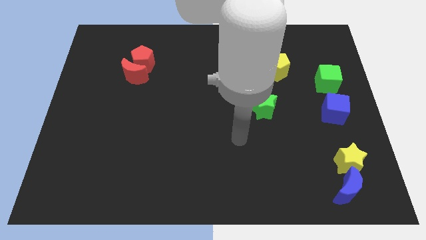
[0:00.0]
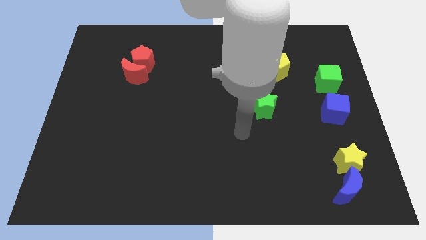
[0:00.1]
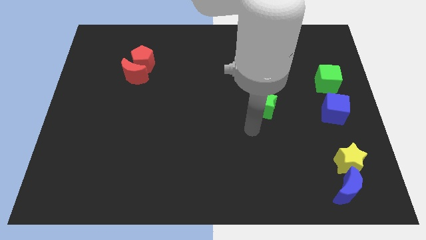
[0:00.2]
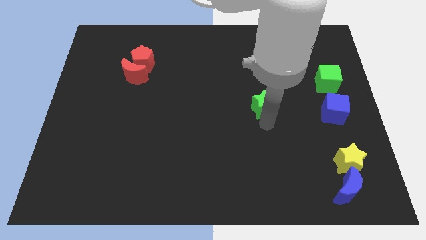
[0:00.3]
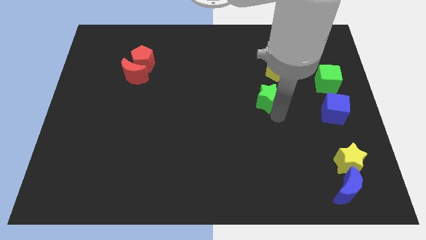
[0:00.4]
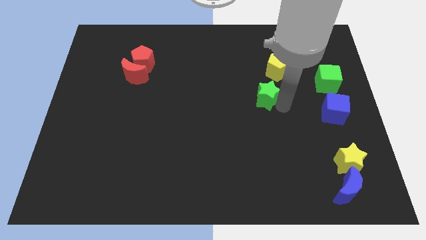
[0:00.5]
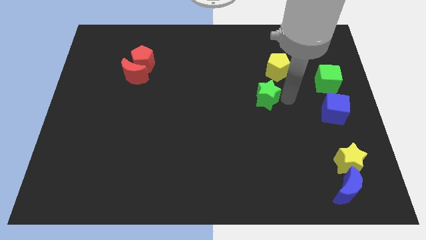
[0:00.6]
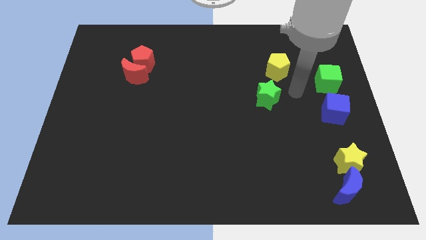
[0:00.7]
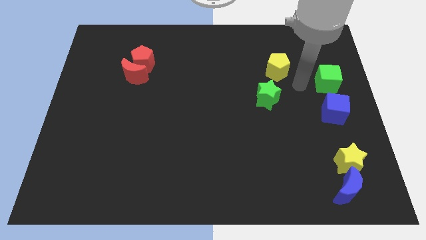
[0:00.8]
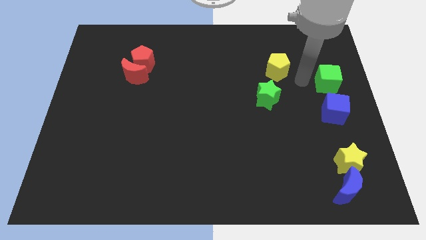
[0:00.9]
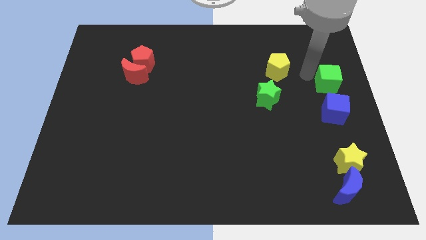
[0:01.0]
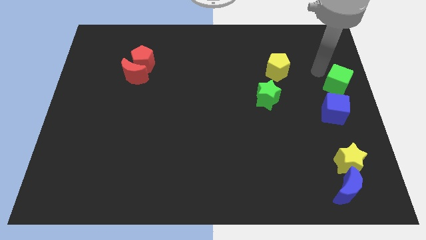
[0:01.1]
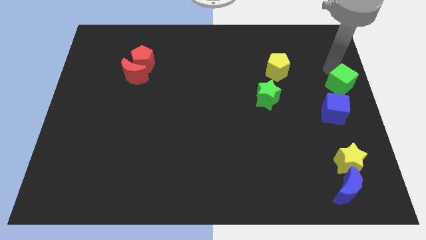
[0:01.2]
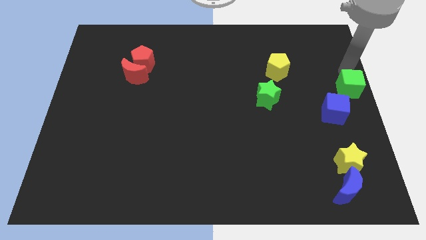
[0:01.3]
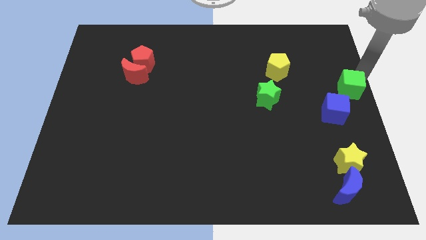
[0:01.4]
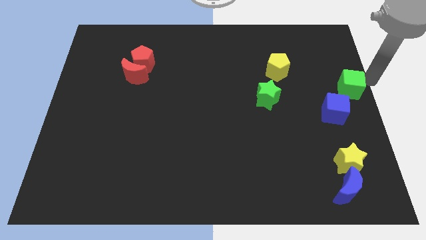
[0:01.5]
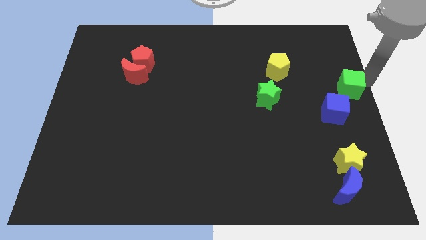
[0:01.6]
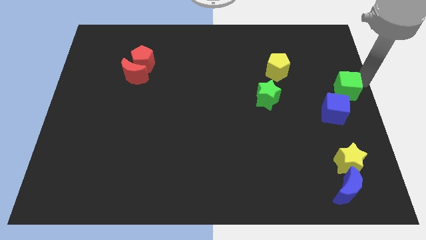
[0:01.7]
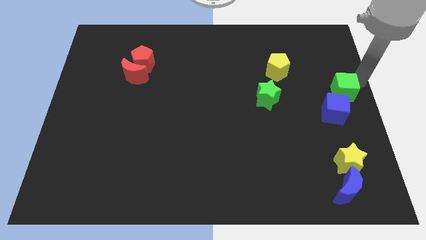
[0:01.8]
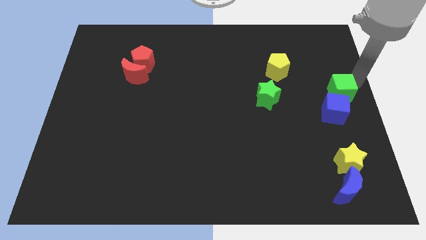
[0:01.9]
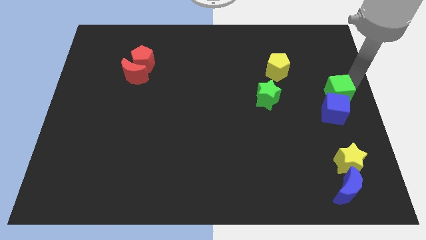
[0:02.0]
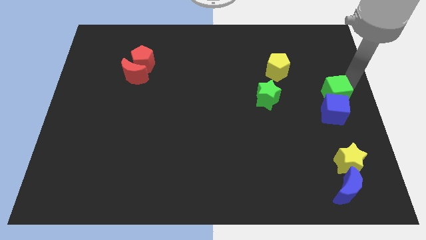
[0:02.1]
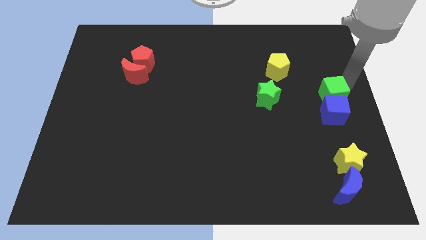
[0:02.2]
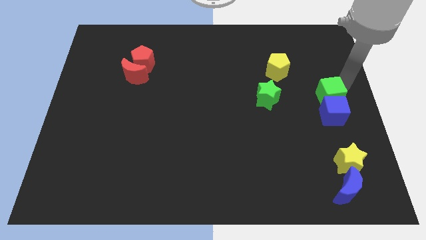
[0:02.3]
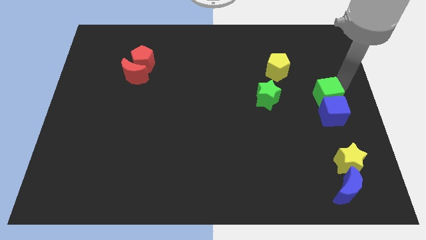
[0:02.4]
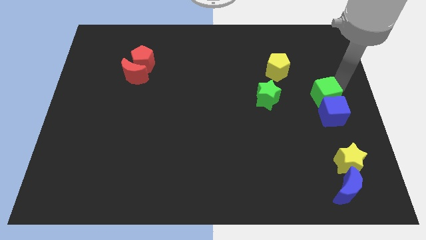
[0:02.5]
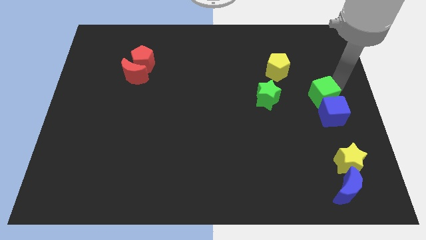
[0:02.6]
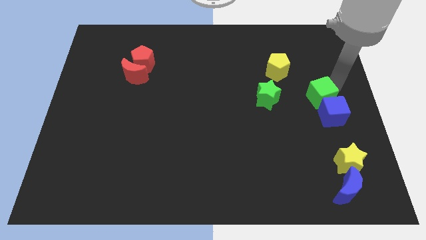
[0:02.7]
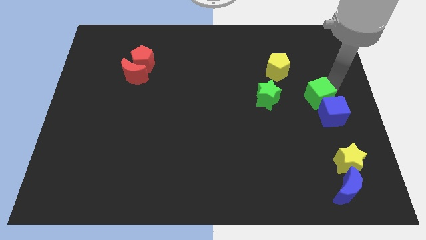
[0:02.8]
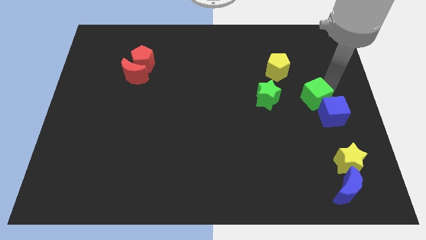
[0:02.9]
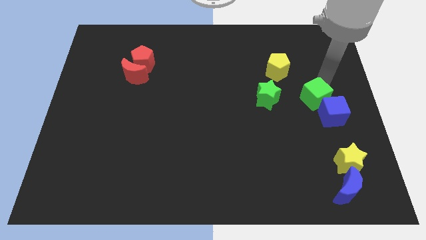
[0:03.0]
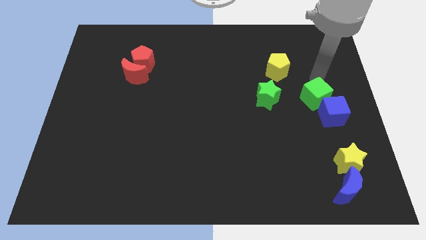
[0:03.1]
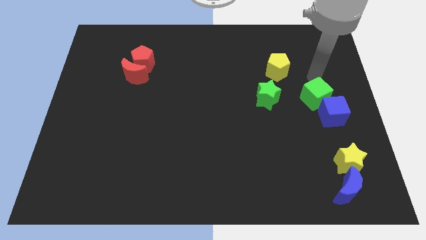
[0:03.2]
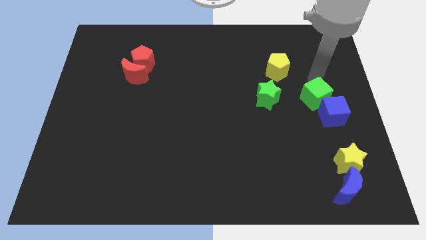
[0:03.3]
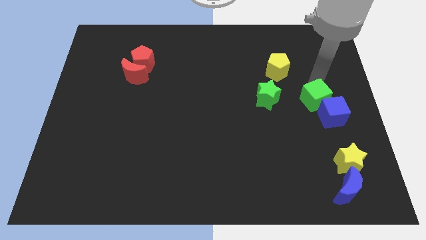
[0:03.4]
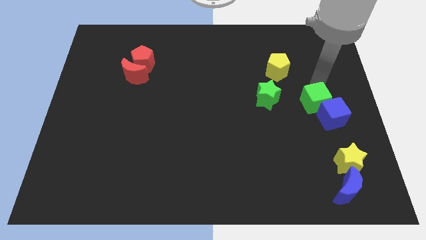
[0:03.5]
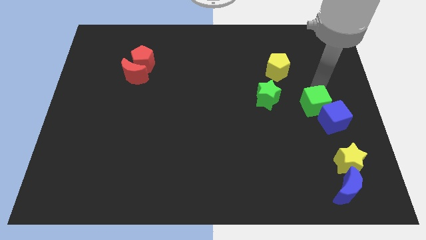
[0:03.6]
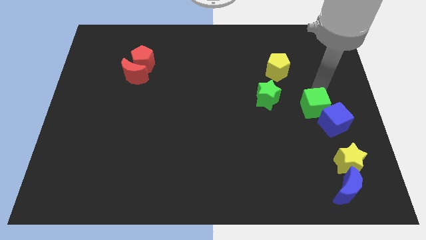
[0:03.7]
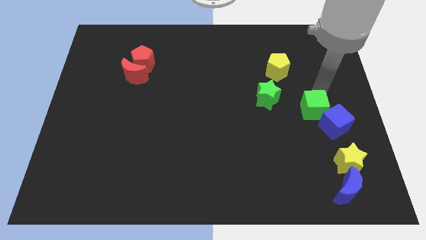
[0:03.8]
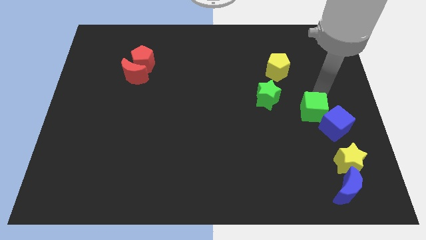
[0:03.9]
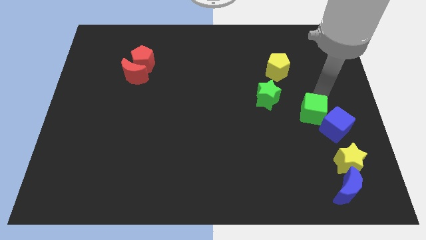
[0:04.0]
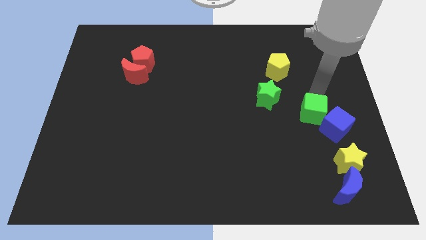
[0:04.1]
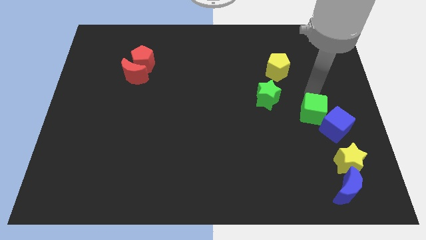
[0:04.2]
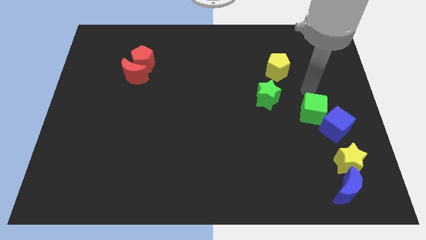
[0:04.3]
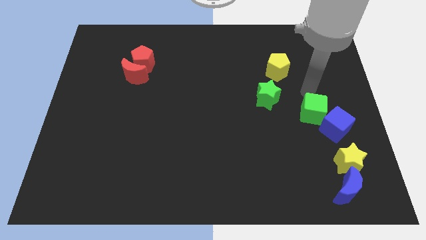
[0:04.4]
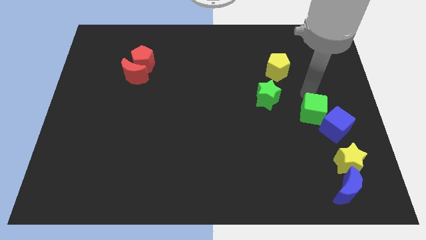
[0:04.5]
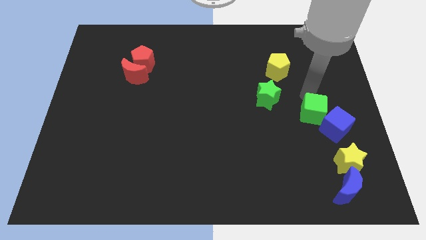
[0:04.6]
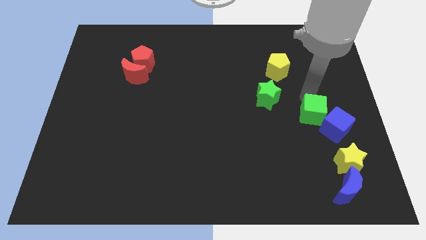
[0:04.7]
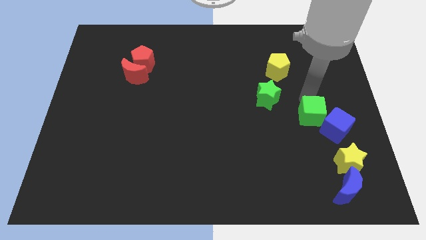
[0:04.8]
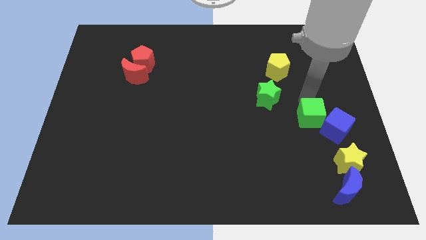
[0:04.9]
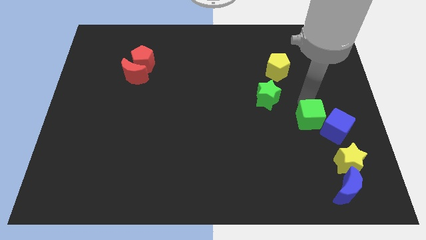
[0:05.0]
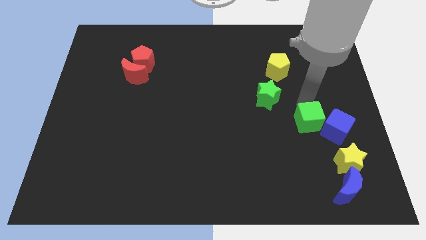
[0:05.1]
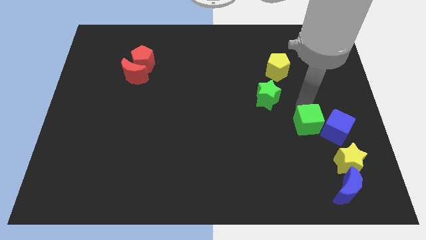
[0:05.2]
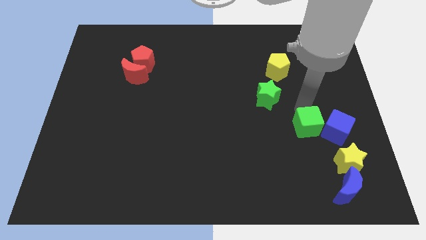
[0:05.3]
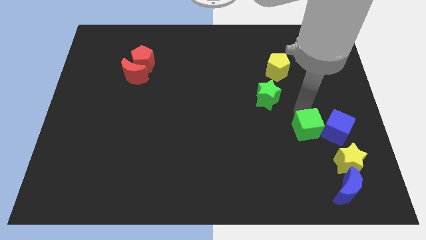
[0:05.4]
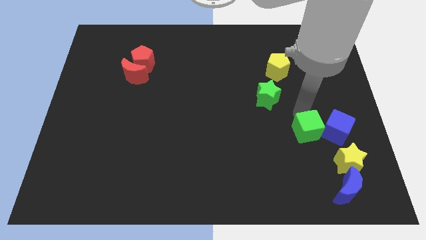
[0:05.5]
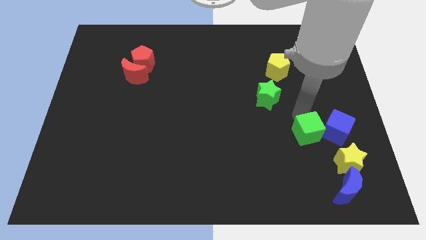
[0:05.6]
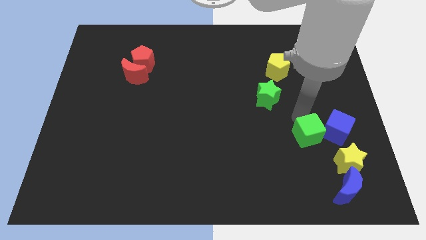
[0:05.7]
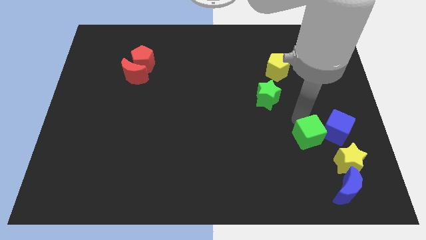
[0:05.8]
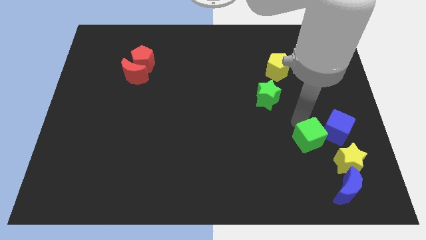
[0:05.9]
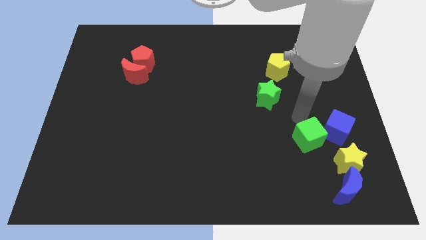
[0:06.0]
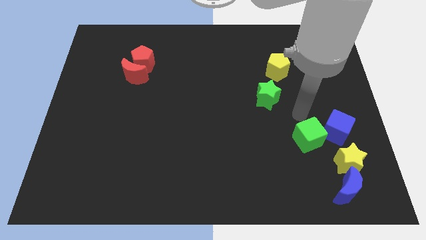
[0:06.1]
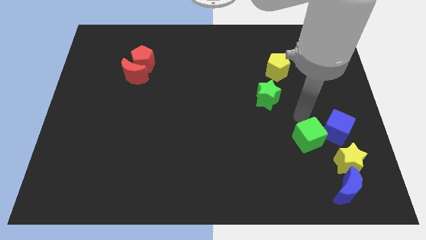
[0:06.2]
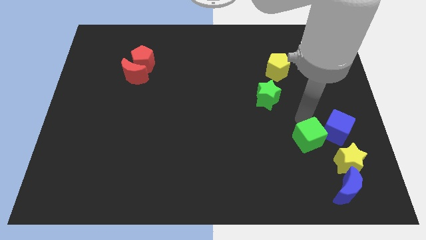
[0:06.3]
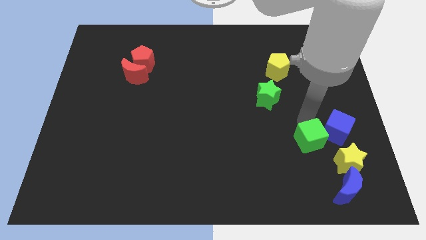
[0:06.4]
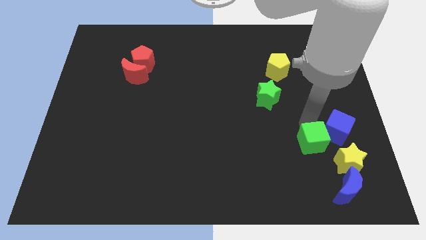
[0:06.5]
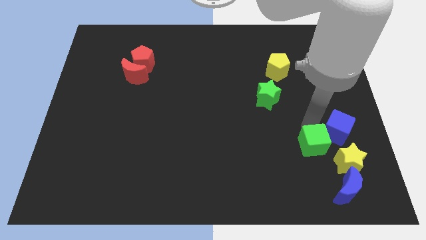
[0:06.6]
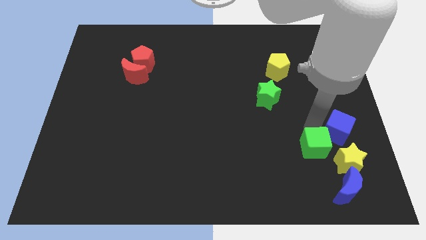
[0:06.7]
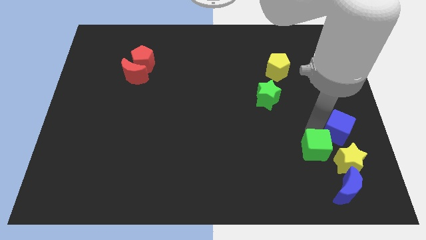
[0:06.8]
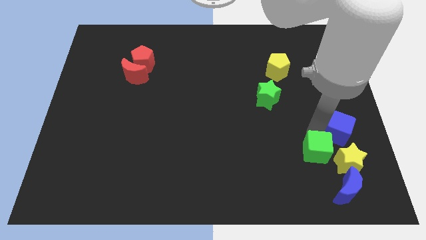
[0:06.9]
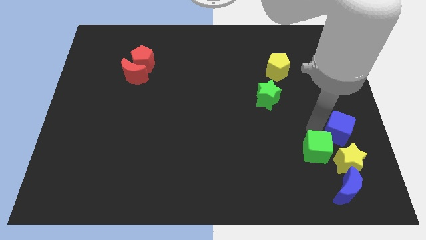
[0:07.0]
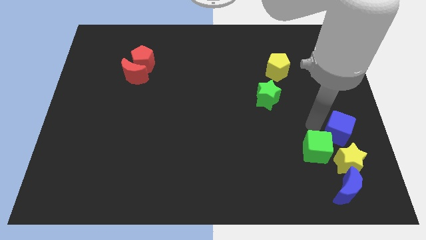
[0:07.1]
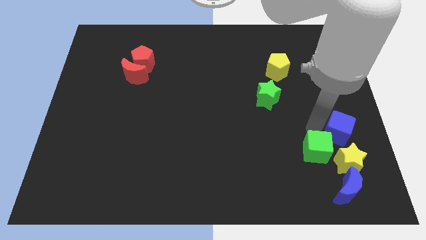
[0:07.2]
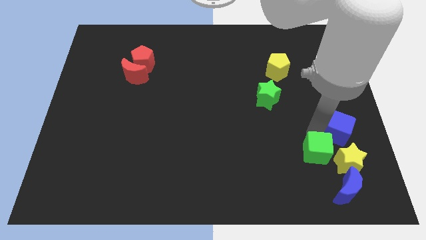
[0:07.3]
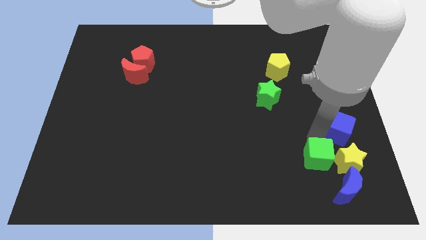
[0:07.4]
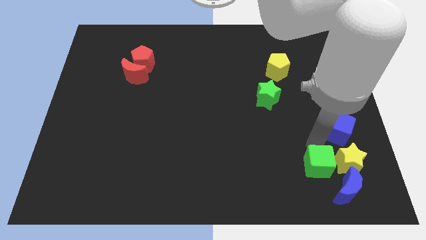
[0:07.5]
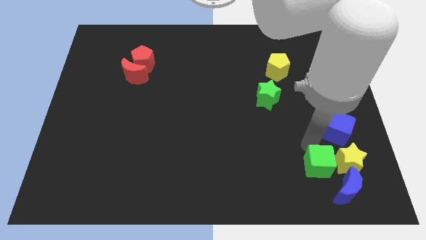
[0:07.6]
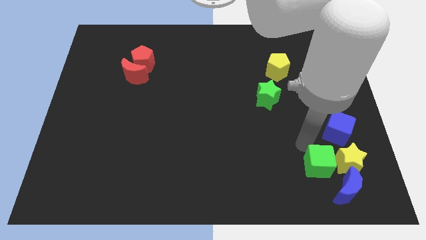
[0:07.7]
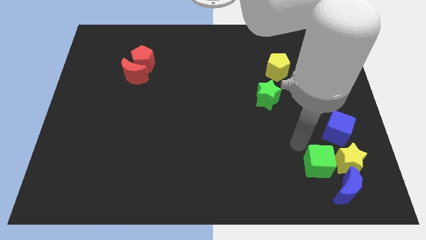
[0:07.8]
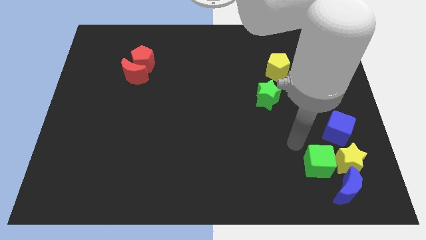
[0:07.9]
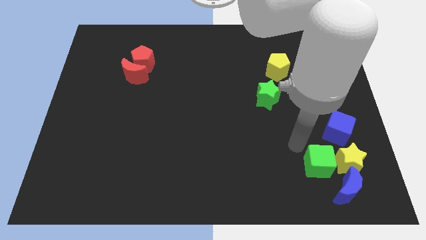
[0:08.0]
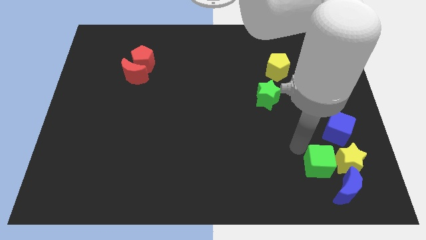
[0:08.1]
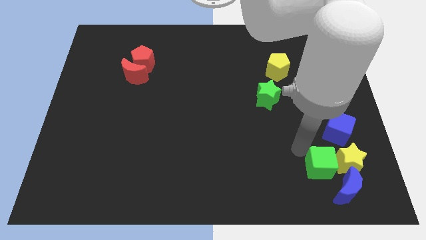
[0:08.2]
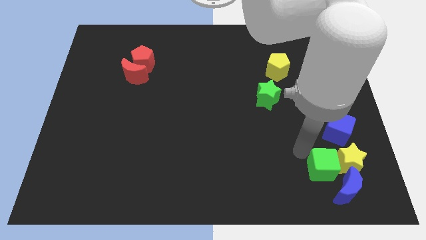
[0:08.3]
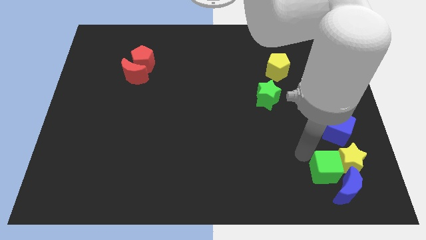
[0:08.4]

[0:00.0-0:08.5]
move the green cube towards the blue moon
